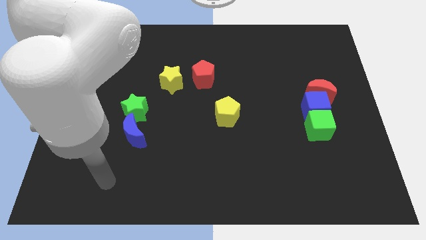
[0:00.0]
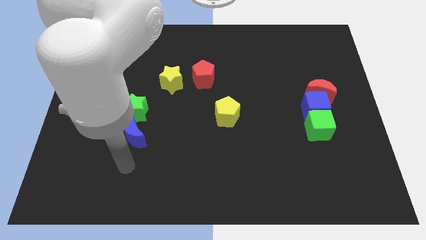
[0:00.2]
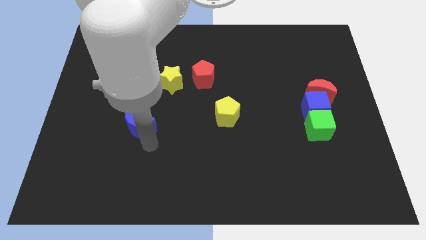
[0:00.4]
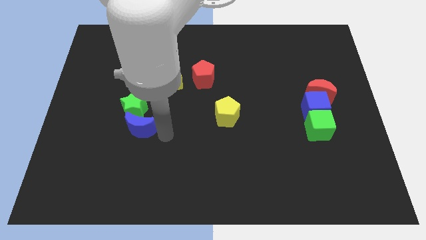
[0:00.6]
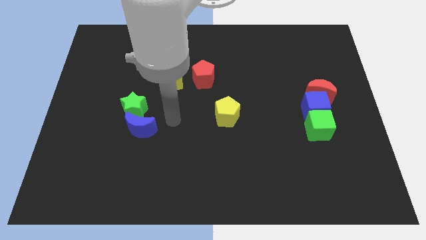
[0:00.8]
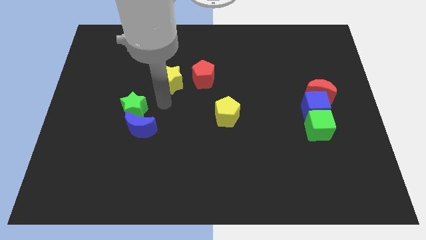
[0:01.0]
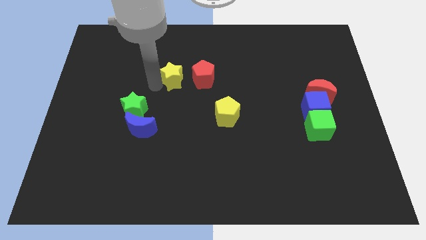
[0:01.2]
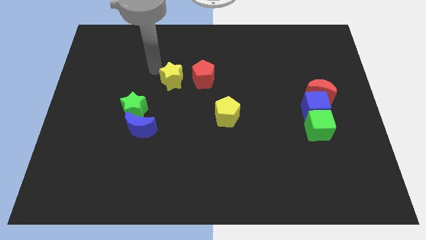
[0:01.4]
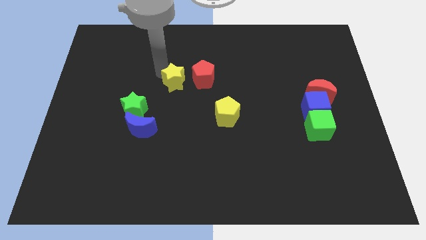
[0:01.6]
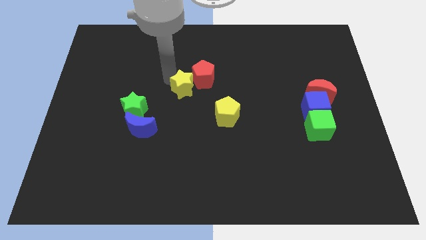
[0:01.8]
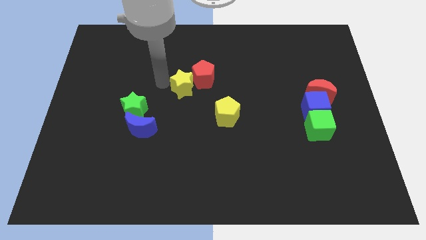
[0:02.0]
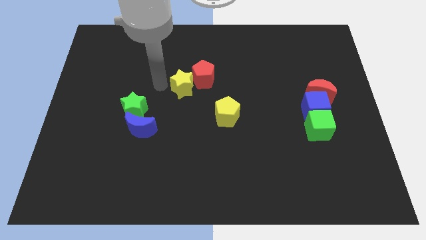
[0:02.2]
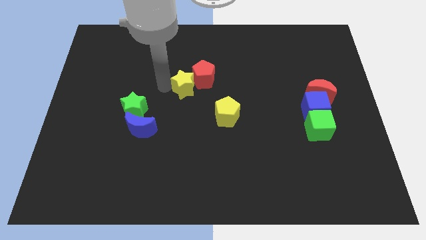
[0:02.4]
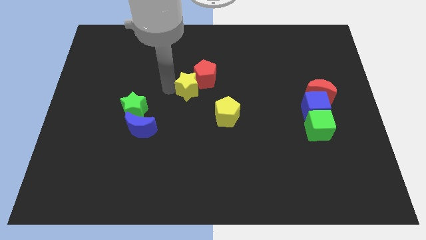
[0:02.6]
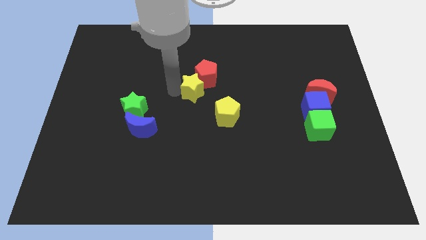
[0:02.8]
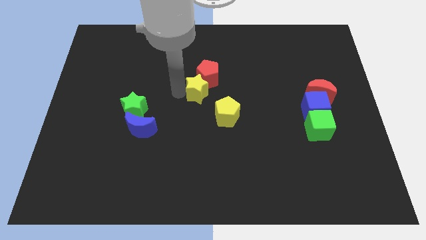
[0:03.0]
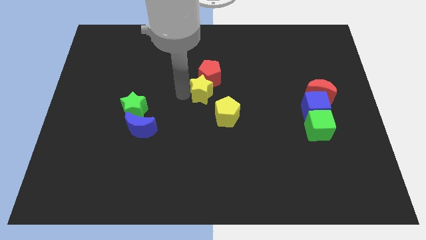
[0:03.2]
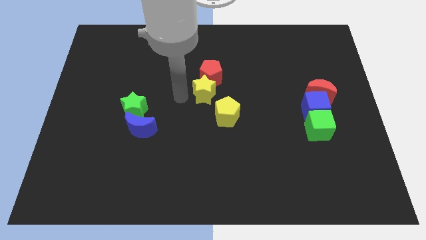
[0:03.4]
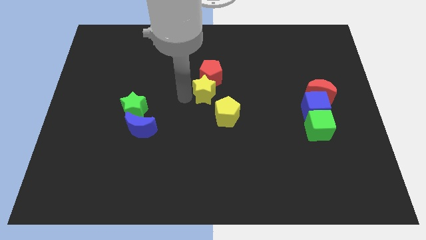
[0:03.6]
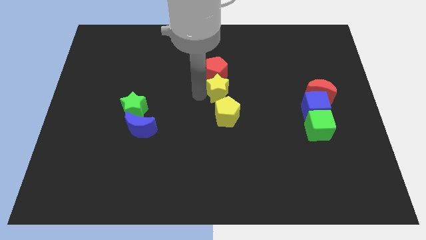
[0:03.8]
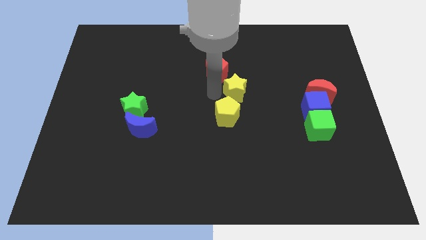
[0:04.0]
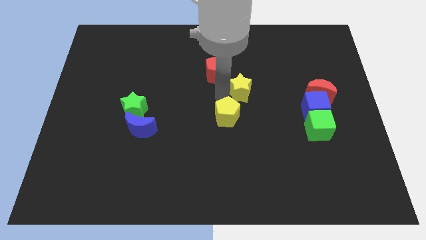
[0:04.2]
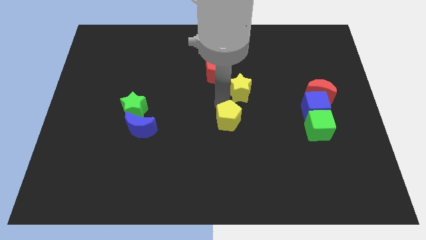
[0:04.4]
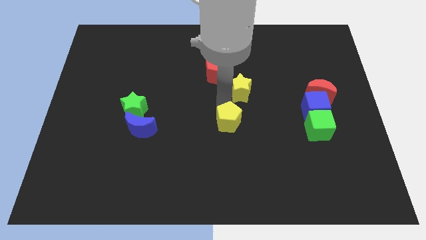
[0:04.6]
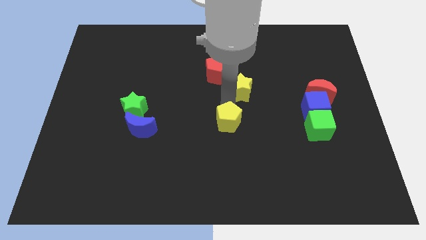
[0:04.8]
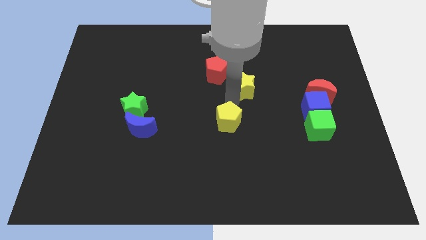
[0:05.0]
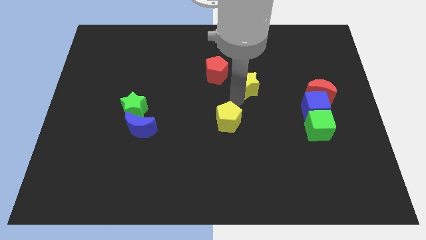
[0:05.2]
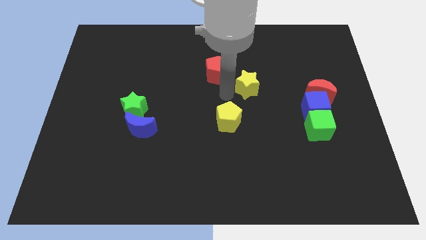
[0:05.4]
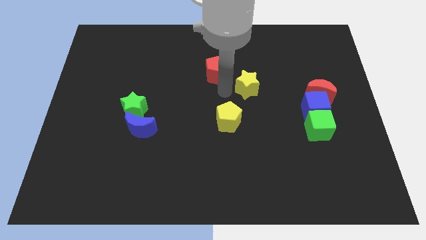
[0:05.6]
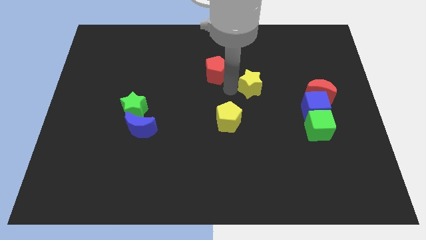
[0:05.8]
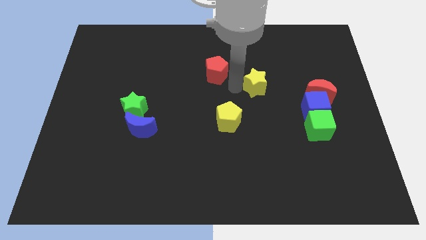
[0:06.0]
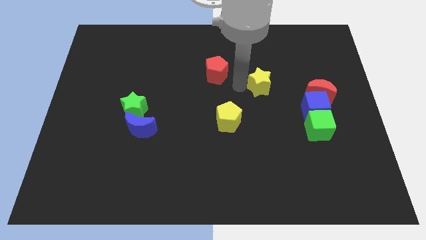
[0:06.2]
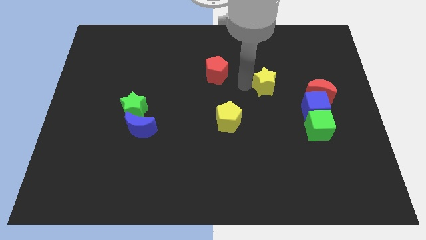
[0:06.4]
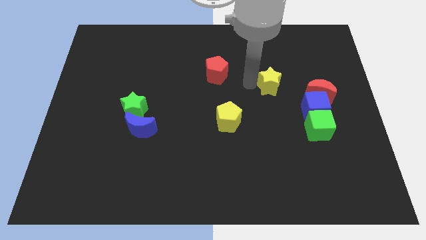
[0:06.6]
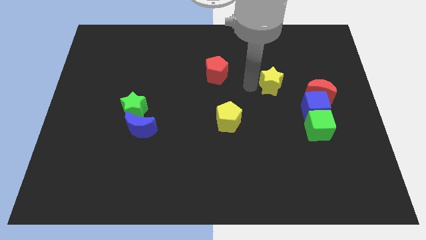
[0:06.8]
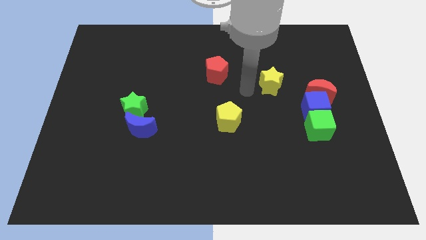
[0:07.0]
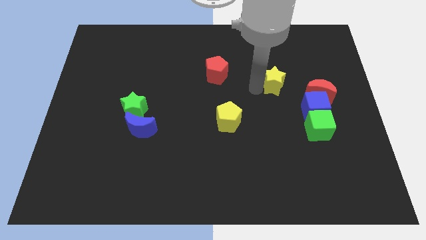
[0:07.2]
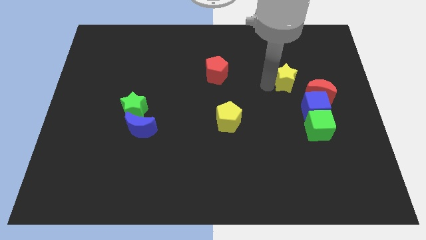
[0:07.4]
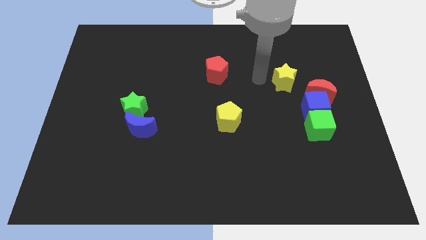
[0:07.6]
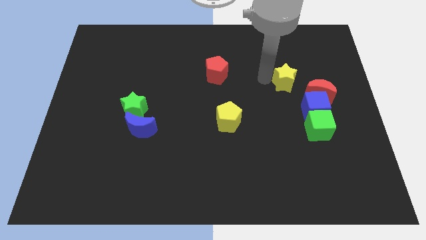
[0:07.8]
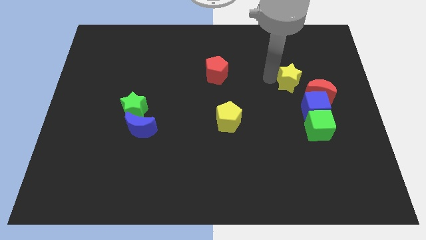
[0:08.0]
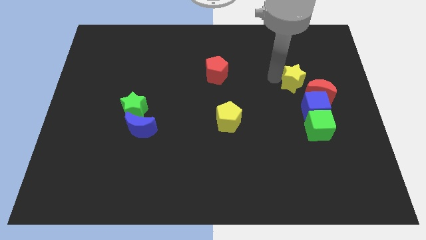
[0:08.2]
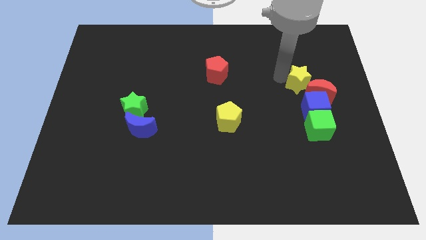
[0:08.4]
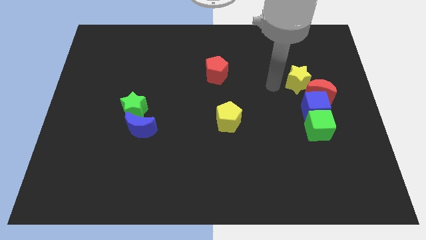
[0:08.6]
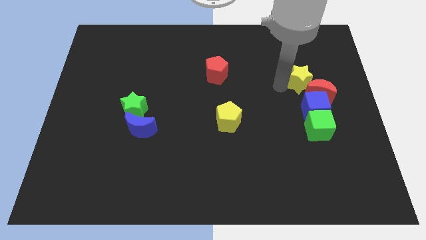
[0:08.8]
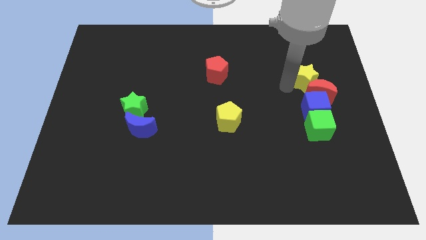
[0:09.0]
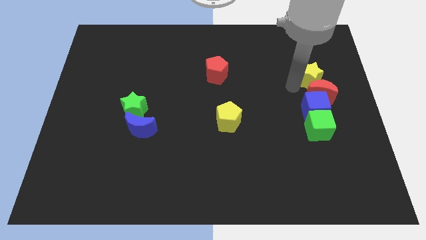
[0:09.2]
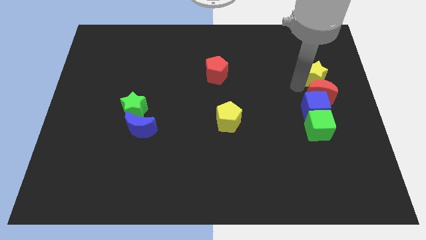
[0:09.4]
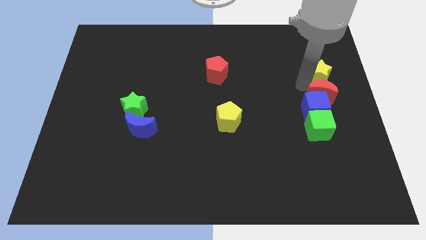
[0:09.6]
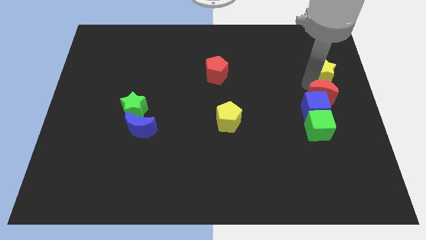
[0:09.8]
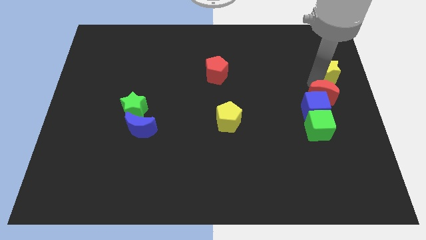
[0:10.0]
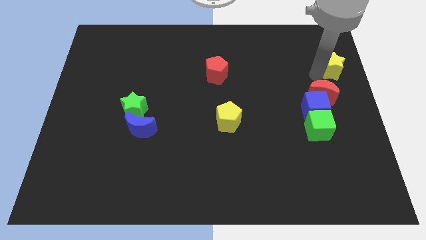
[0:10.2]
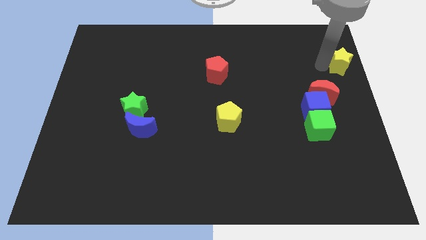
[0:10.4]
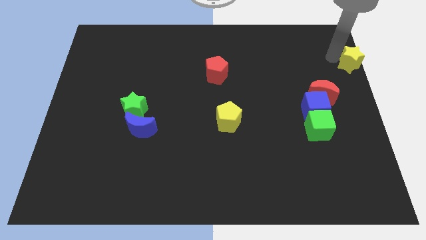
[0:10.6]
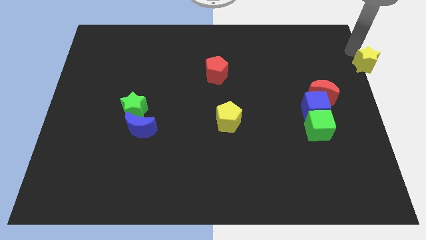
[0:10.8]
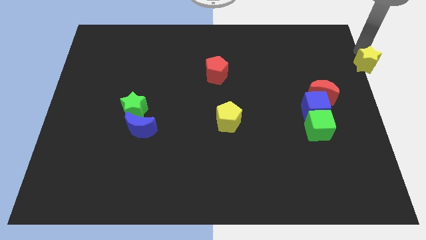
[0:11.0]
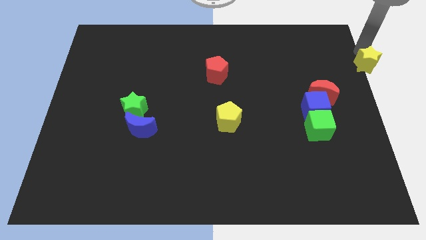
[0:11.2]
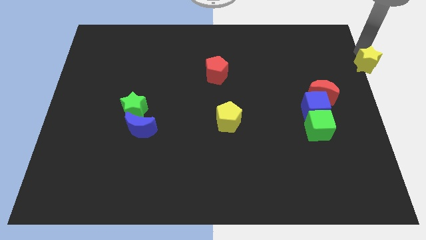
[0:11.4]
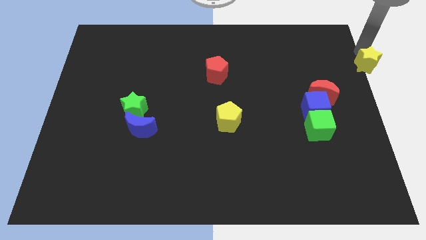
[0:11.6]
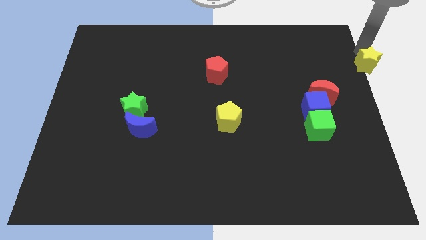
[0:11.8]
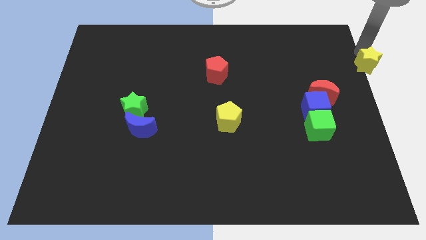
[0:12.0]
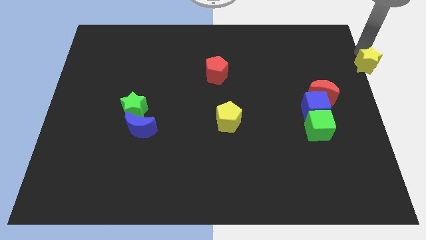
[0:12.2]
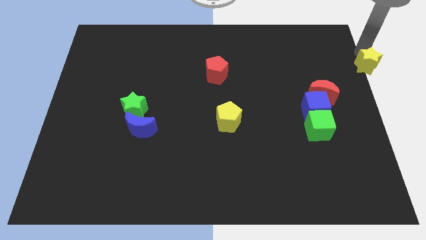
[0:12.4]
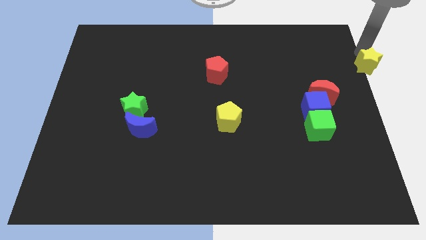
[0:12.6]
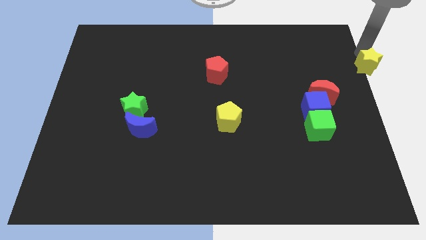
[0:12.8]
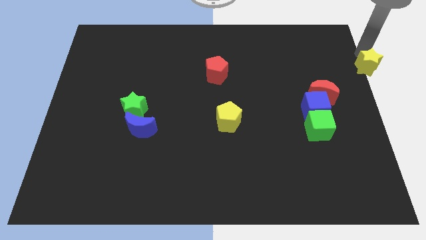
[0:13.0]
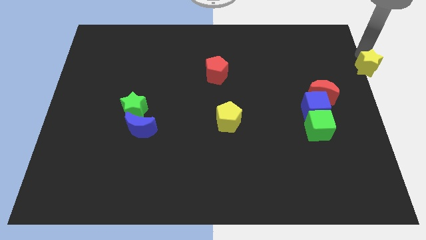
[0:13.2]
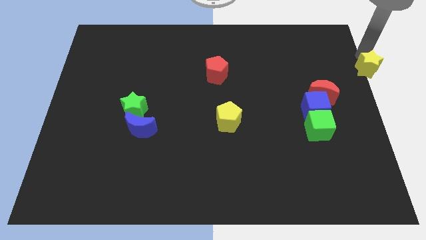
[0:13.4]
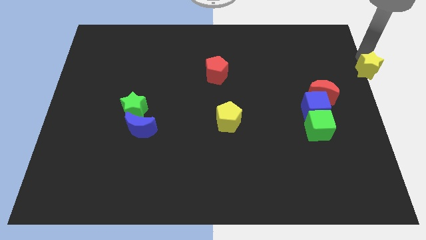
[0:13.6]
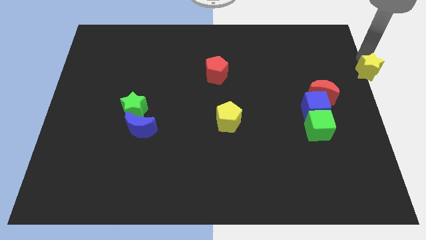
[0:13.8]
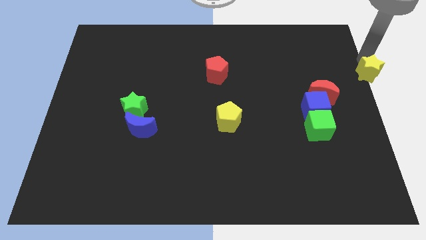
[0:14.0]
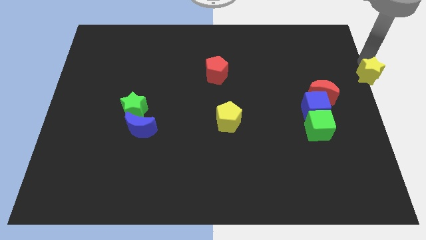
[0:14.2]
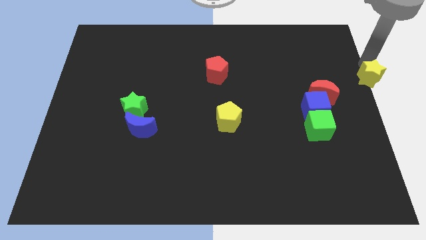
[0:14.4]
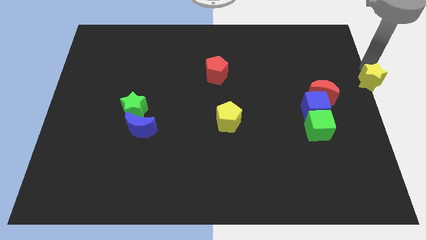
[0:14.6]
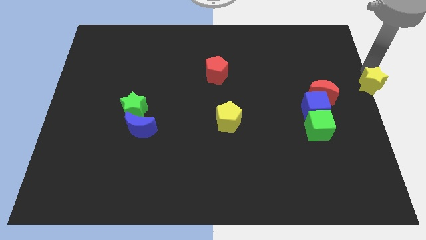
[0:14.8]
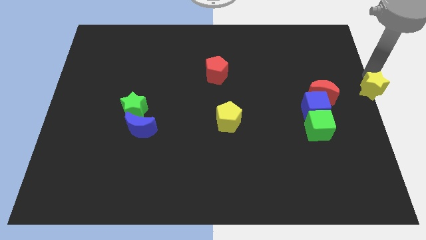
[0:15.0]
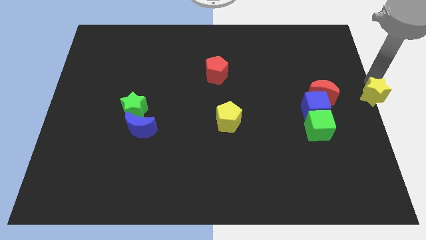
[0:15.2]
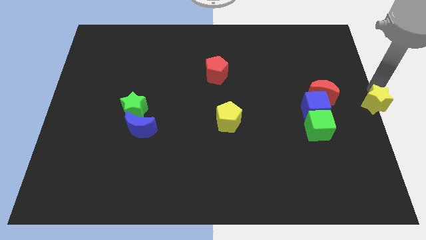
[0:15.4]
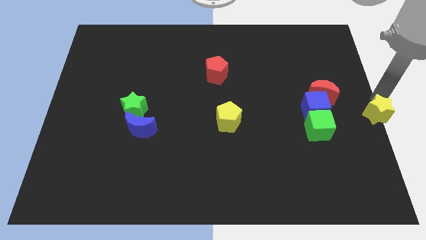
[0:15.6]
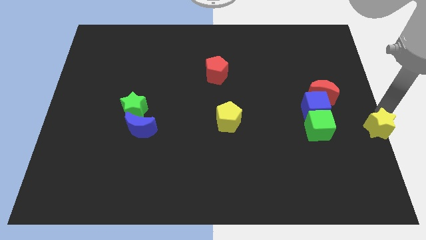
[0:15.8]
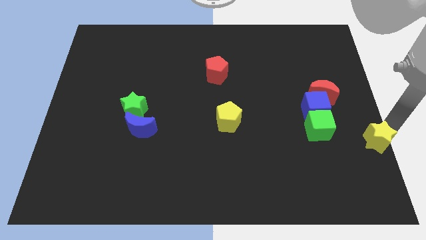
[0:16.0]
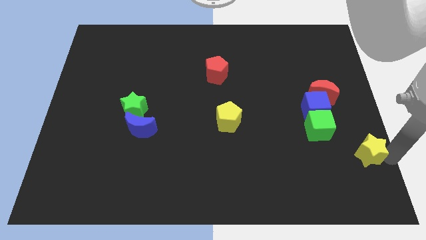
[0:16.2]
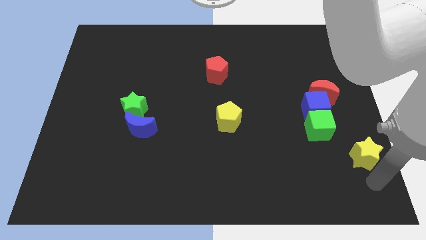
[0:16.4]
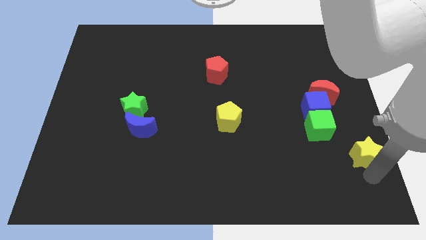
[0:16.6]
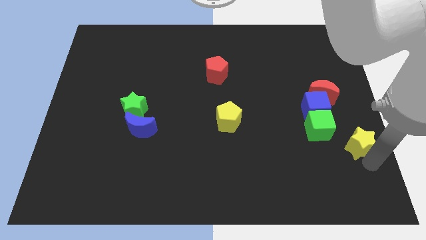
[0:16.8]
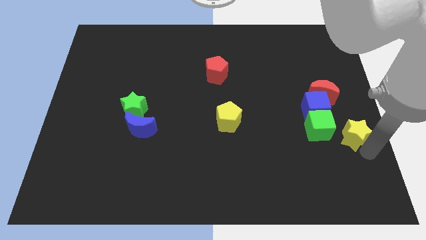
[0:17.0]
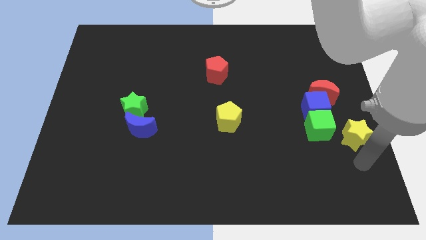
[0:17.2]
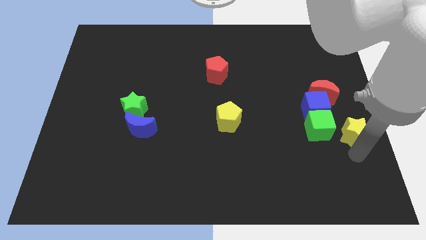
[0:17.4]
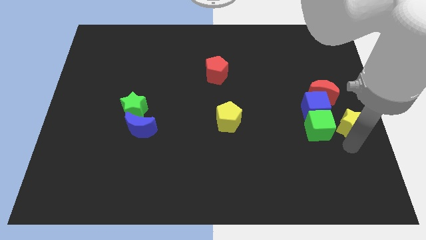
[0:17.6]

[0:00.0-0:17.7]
push the yellow star diagonally up and to the right of the green cube
